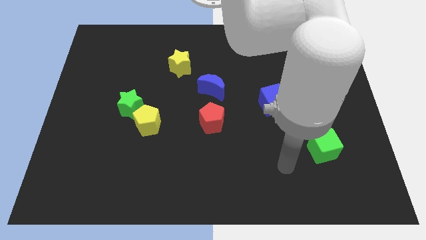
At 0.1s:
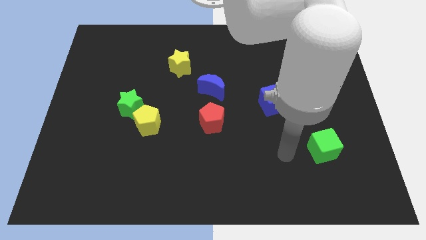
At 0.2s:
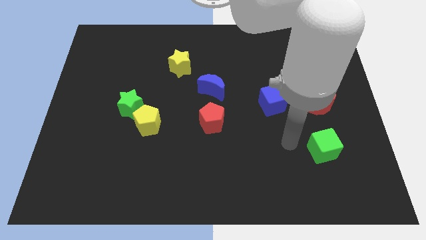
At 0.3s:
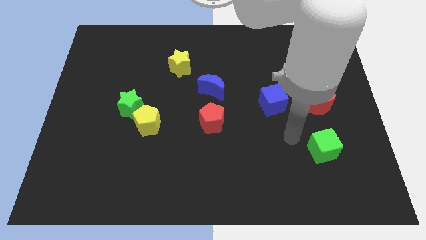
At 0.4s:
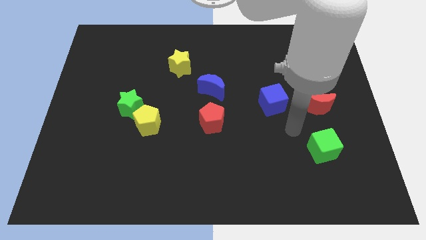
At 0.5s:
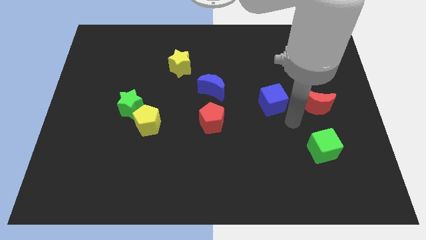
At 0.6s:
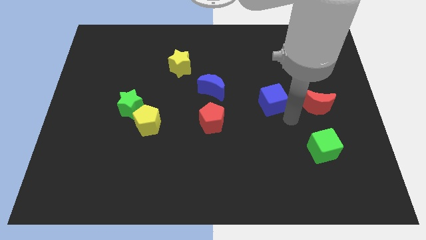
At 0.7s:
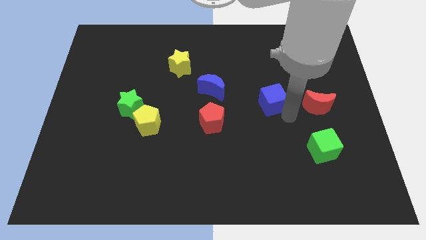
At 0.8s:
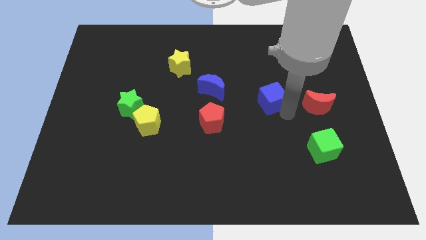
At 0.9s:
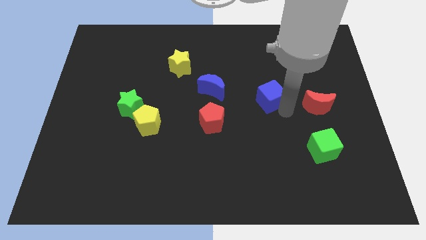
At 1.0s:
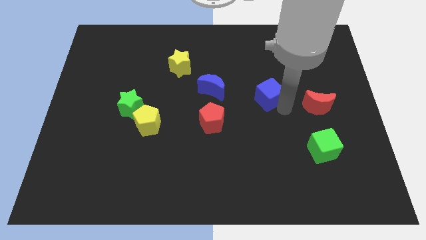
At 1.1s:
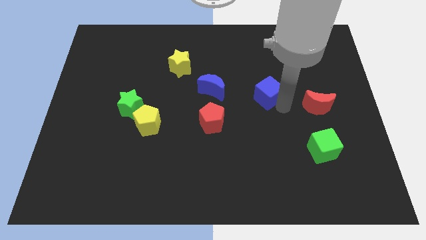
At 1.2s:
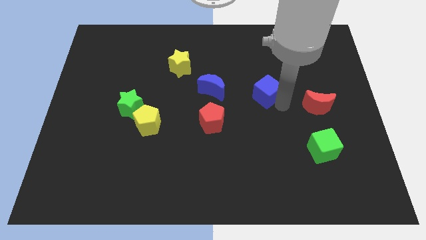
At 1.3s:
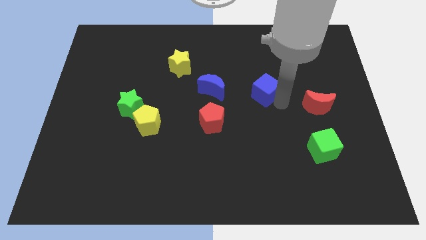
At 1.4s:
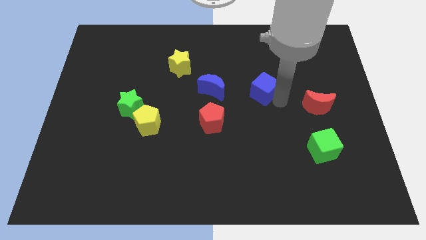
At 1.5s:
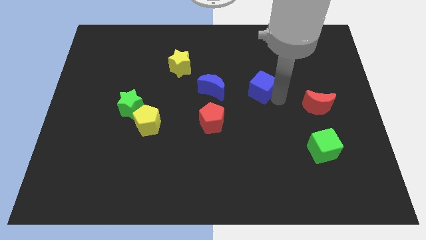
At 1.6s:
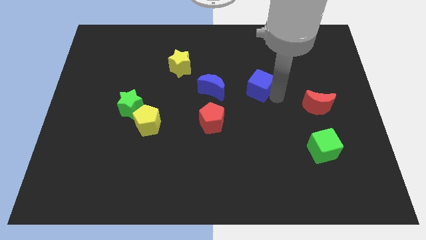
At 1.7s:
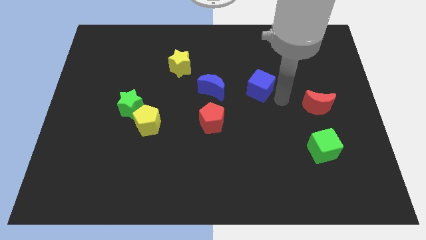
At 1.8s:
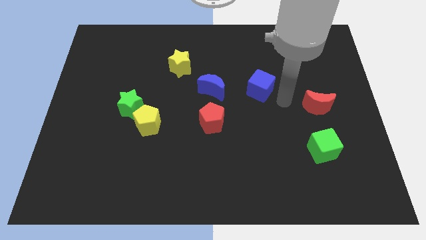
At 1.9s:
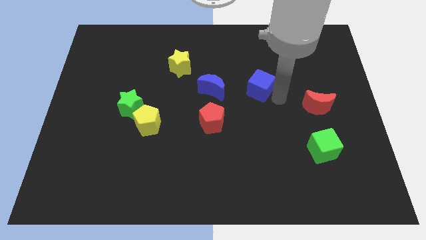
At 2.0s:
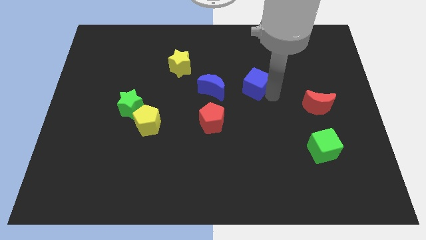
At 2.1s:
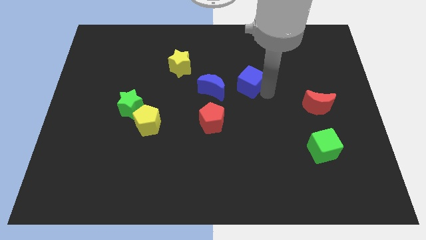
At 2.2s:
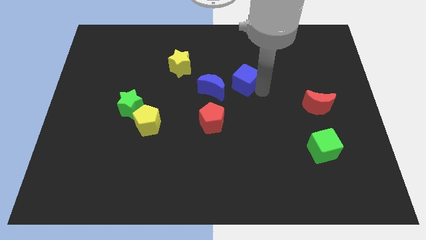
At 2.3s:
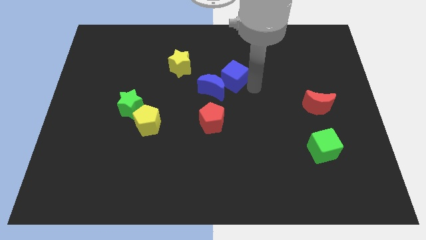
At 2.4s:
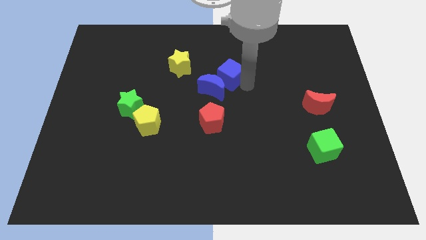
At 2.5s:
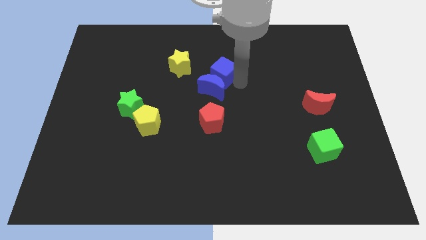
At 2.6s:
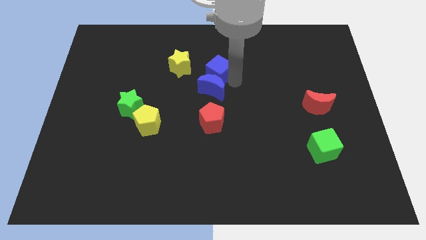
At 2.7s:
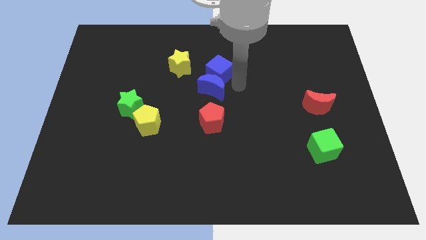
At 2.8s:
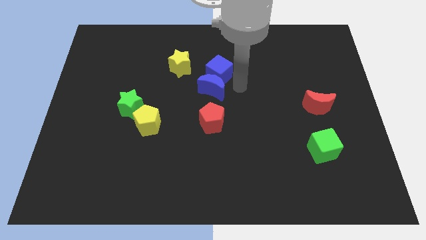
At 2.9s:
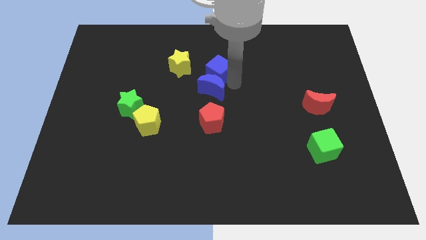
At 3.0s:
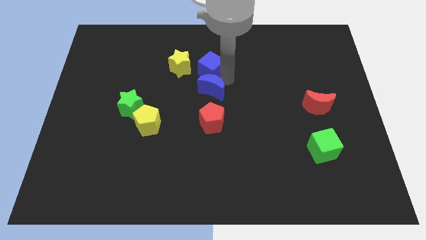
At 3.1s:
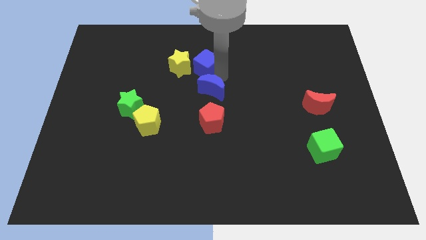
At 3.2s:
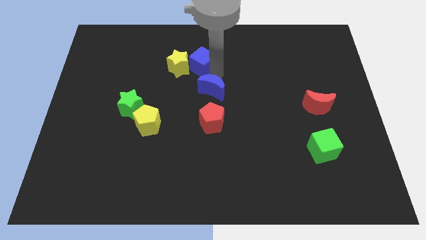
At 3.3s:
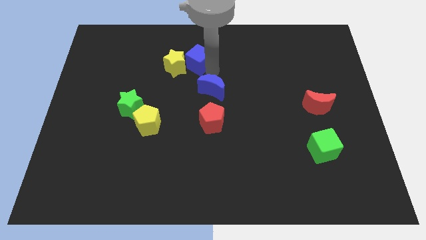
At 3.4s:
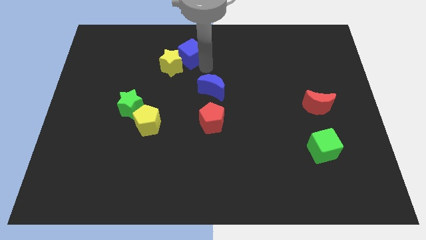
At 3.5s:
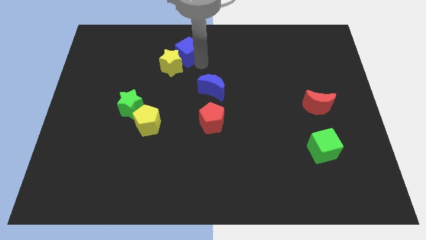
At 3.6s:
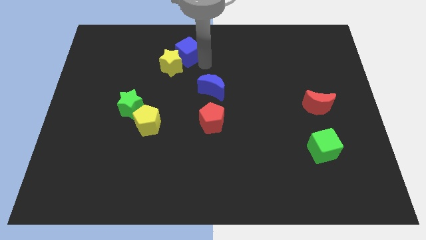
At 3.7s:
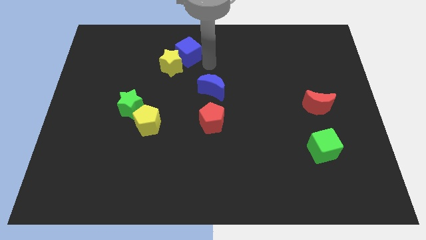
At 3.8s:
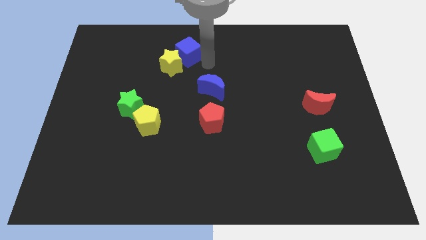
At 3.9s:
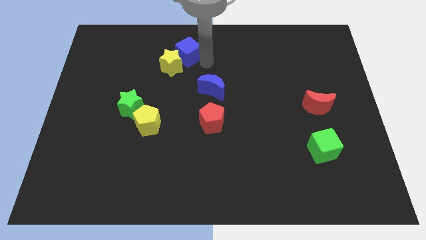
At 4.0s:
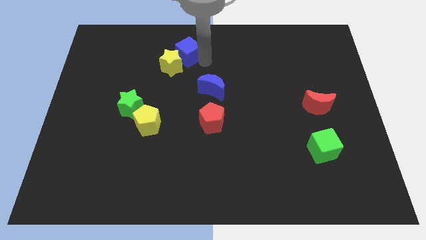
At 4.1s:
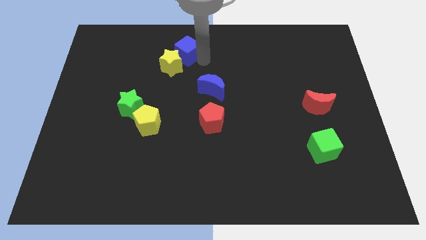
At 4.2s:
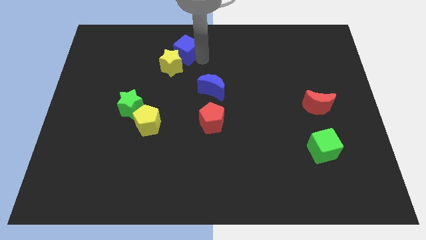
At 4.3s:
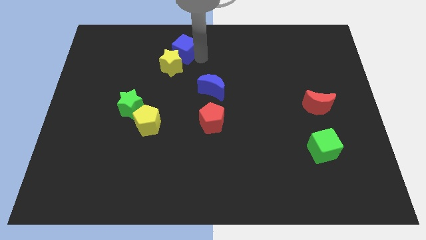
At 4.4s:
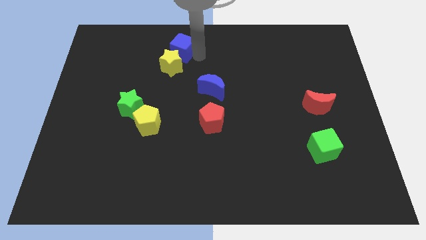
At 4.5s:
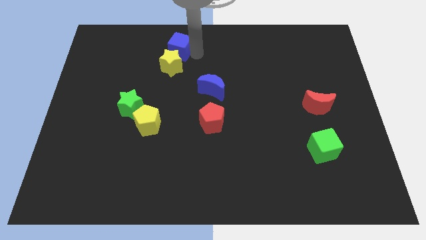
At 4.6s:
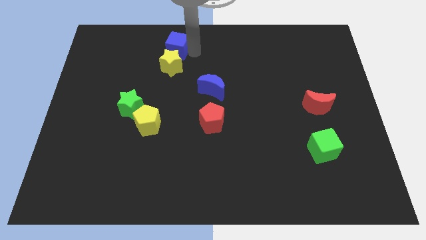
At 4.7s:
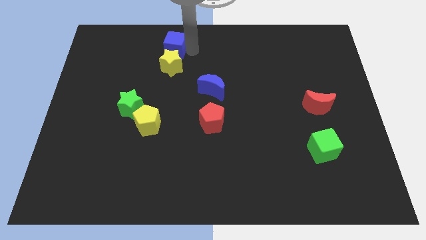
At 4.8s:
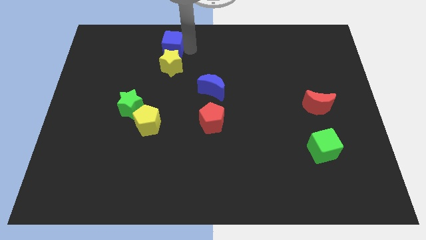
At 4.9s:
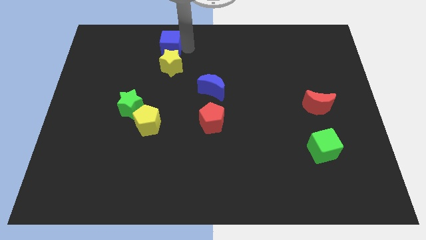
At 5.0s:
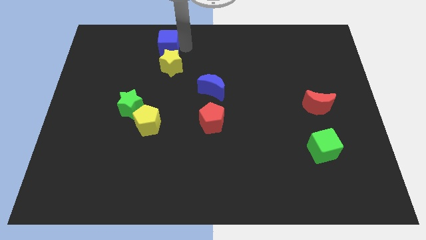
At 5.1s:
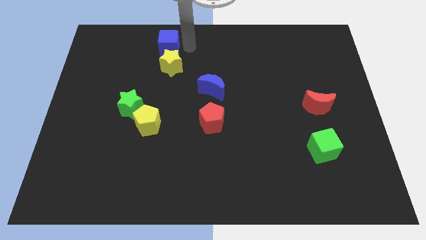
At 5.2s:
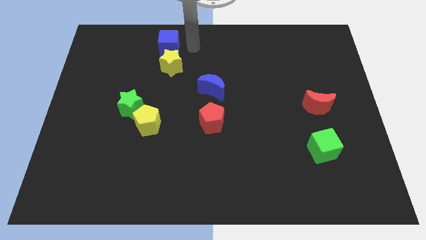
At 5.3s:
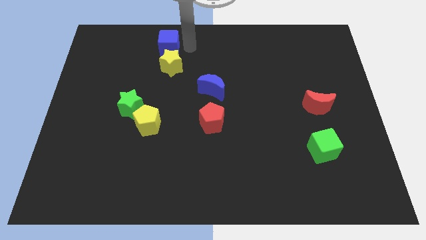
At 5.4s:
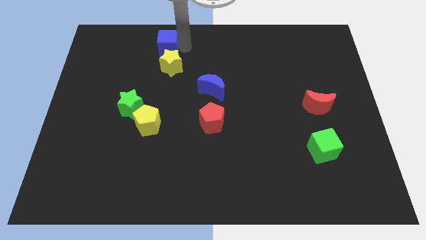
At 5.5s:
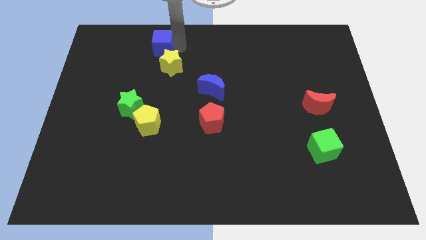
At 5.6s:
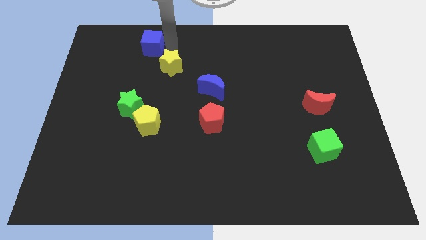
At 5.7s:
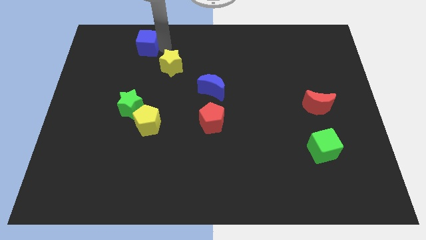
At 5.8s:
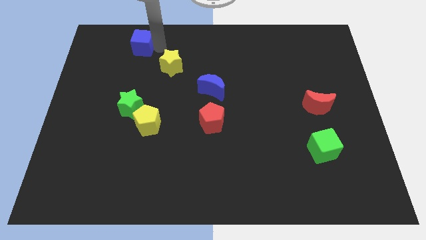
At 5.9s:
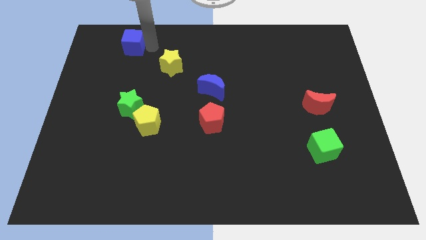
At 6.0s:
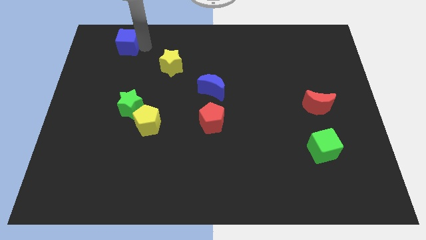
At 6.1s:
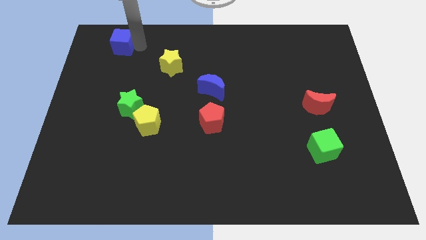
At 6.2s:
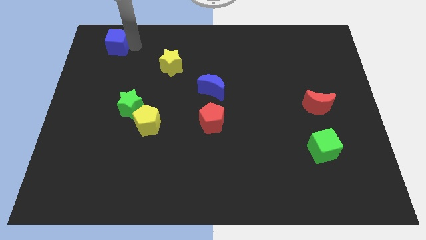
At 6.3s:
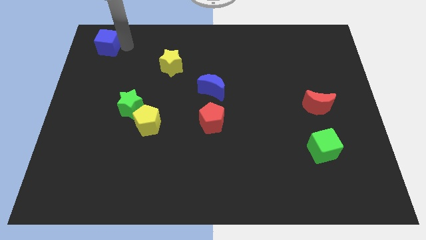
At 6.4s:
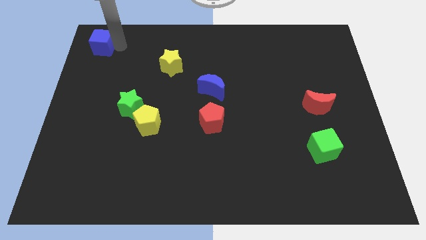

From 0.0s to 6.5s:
slide the blue cube to the top left

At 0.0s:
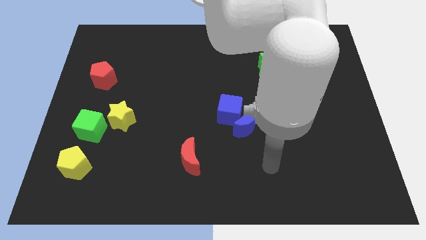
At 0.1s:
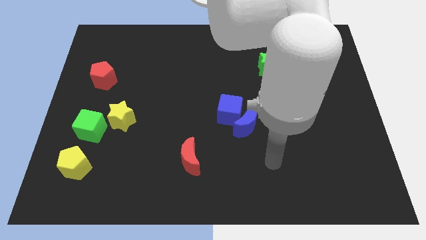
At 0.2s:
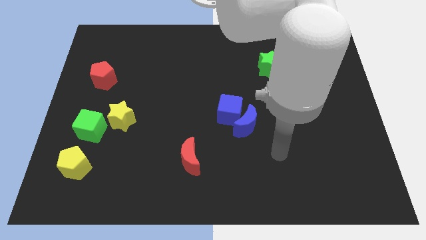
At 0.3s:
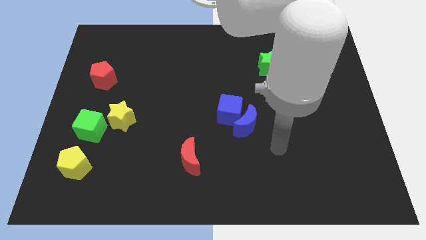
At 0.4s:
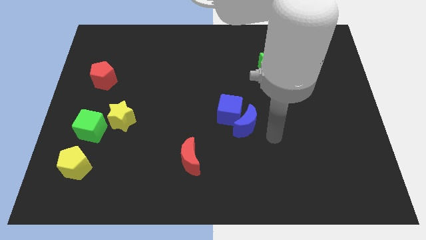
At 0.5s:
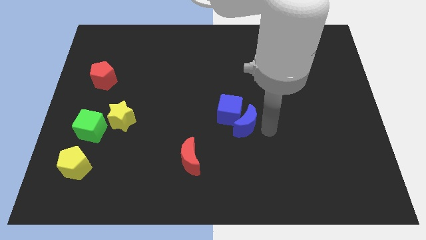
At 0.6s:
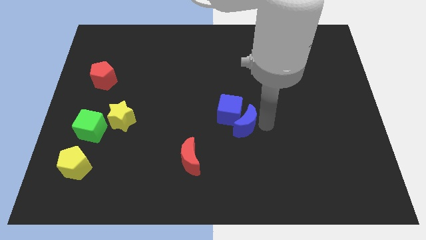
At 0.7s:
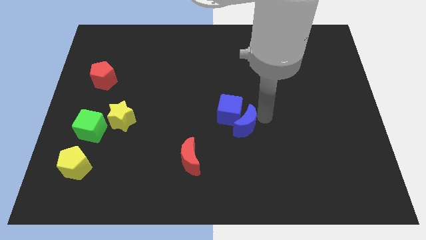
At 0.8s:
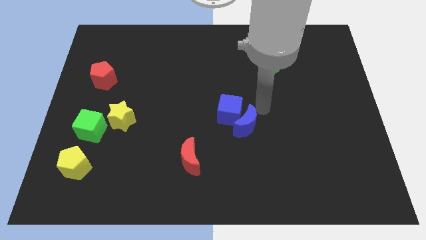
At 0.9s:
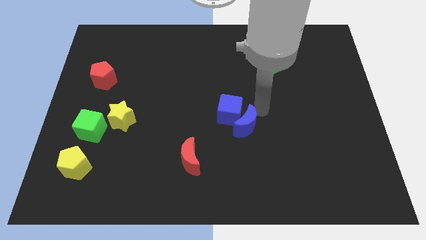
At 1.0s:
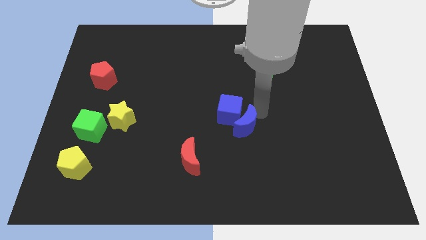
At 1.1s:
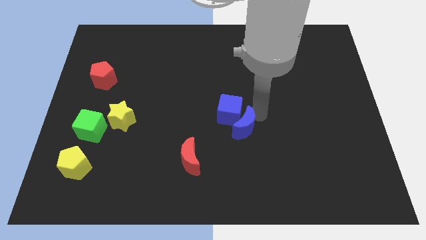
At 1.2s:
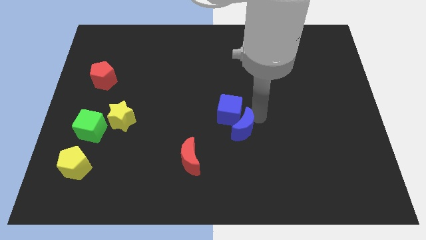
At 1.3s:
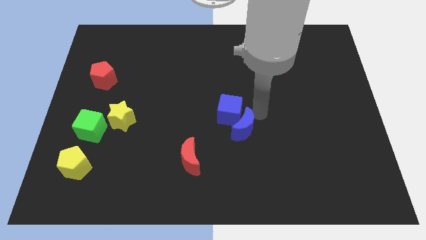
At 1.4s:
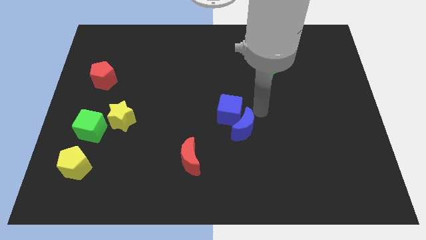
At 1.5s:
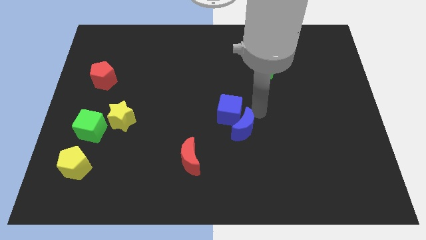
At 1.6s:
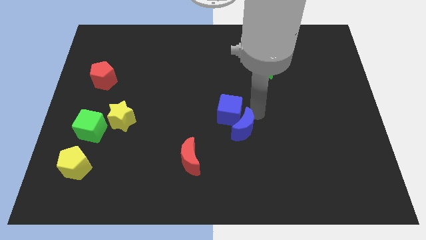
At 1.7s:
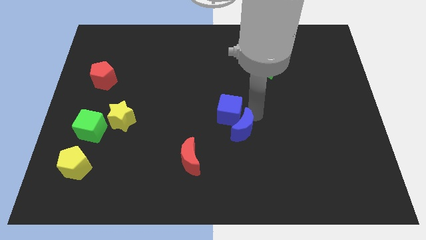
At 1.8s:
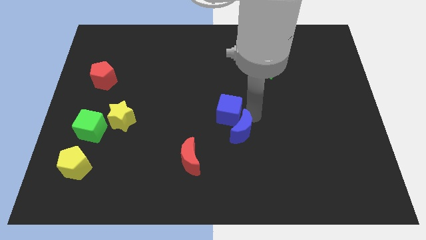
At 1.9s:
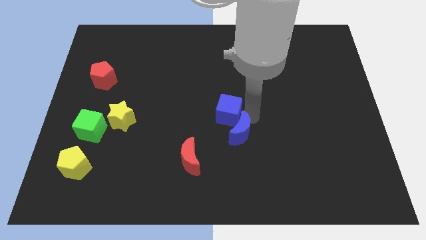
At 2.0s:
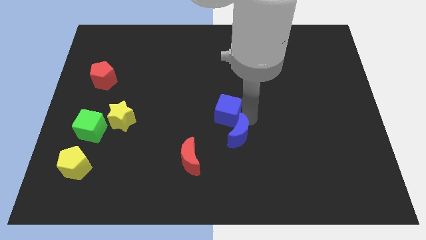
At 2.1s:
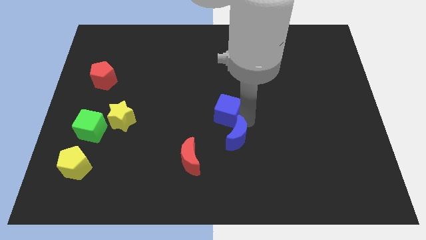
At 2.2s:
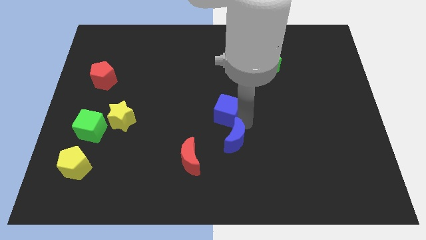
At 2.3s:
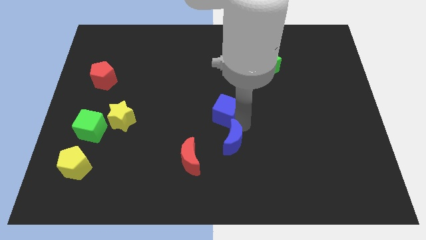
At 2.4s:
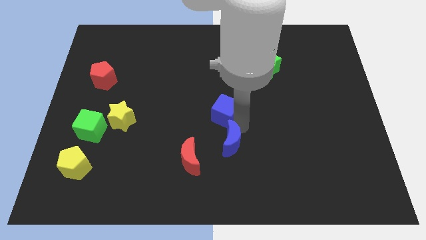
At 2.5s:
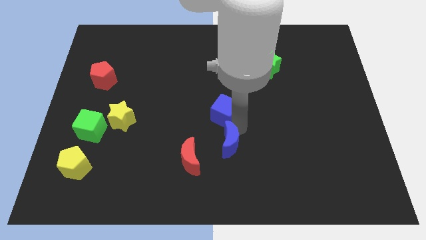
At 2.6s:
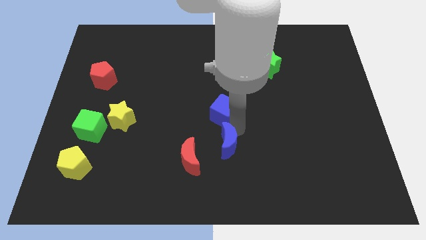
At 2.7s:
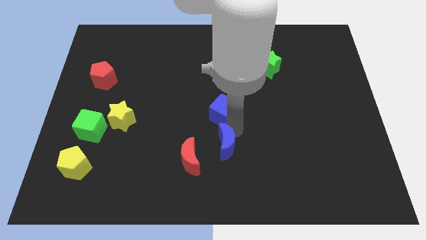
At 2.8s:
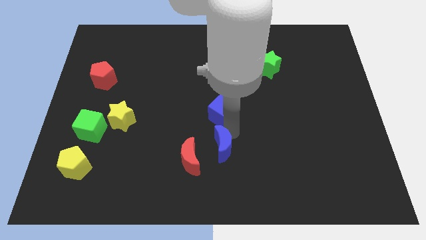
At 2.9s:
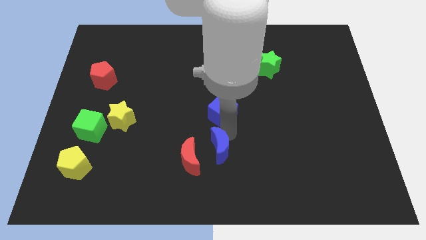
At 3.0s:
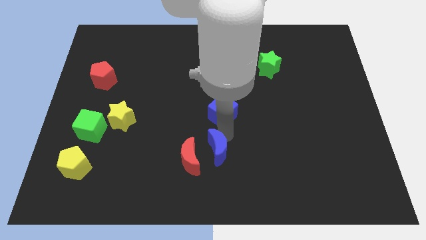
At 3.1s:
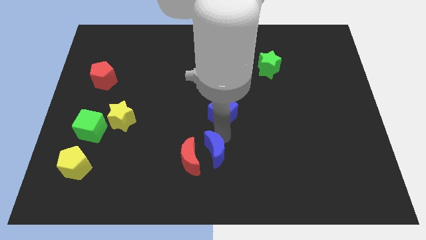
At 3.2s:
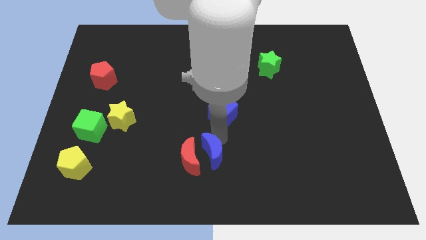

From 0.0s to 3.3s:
push the blue moon to the bottom
